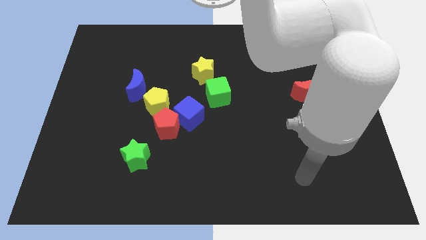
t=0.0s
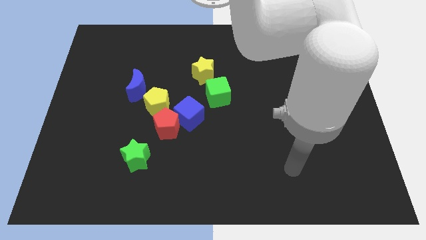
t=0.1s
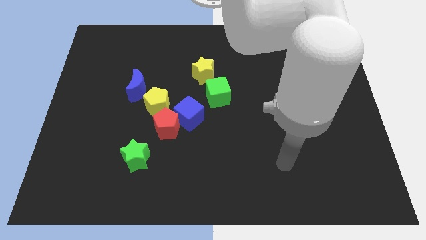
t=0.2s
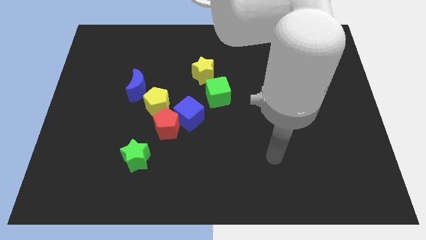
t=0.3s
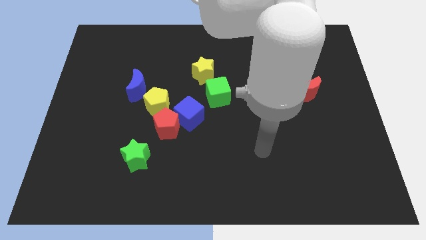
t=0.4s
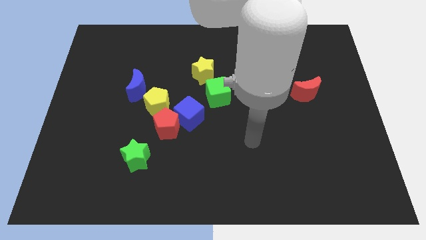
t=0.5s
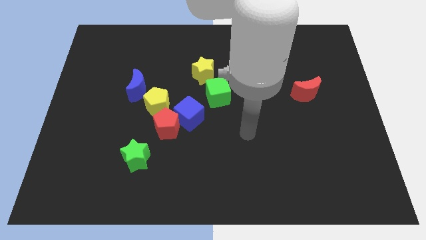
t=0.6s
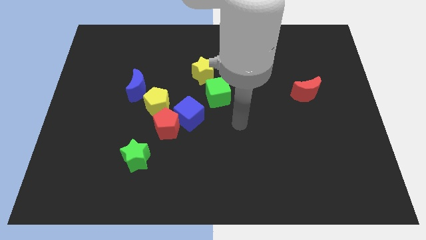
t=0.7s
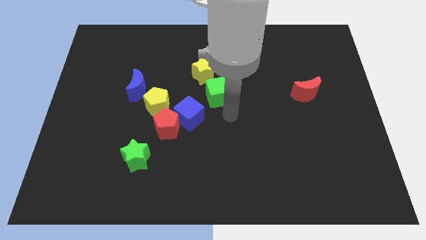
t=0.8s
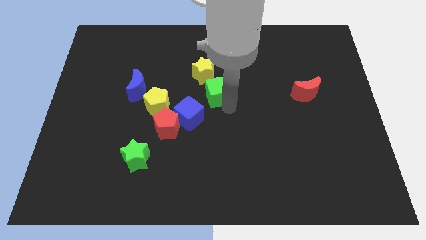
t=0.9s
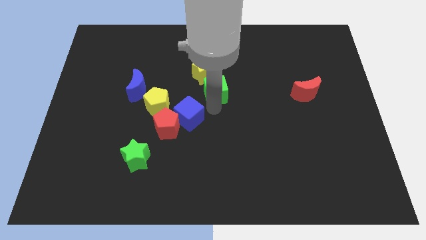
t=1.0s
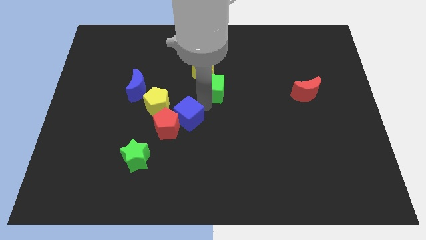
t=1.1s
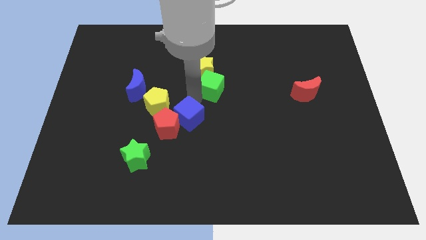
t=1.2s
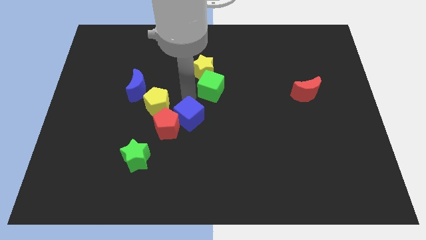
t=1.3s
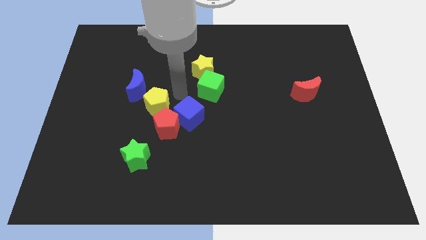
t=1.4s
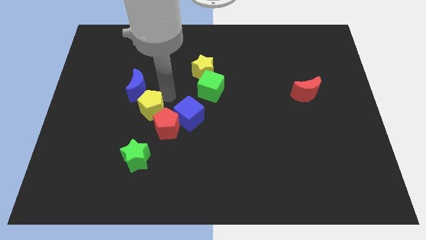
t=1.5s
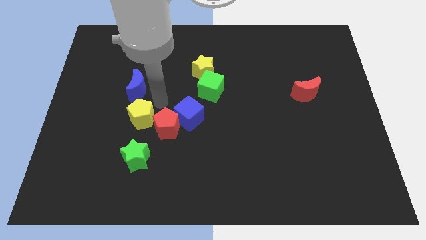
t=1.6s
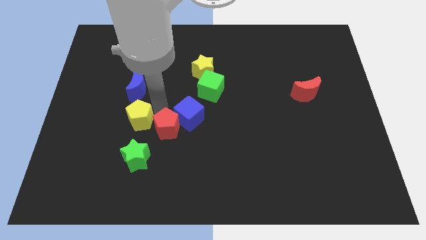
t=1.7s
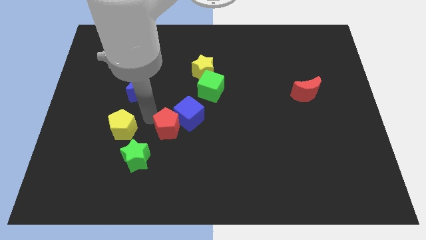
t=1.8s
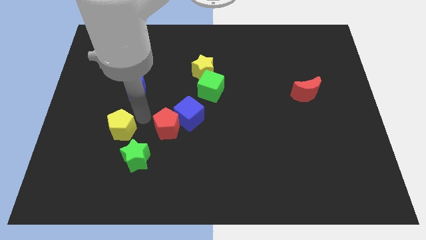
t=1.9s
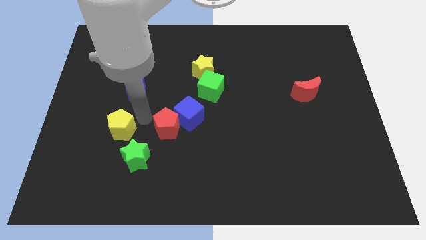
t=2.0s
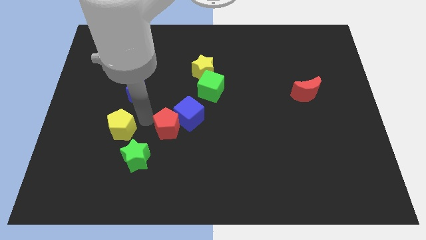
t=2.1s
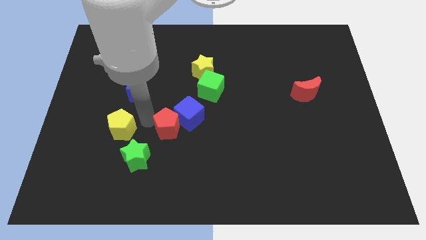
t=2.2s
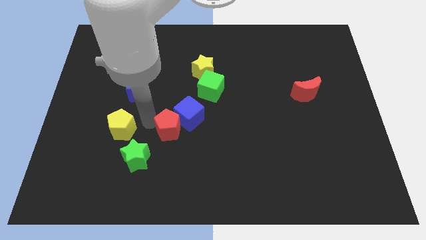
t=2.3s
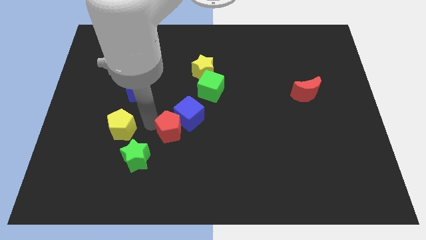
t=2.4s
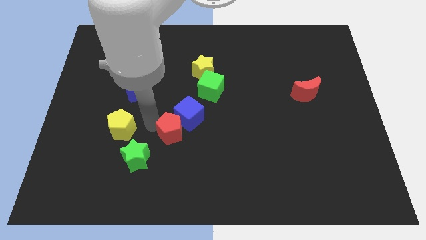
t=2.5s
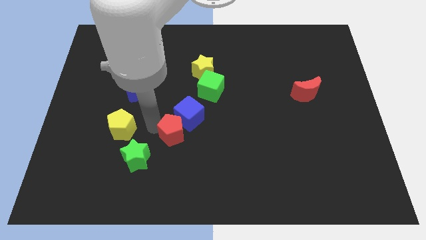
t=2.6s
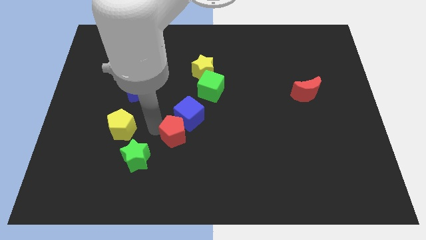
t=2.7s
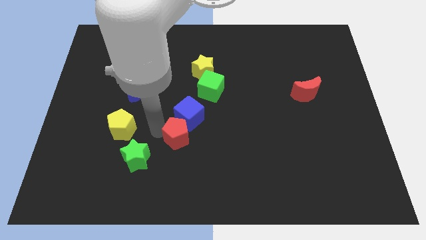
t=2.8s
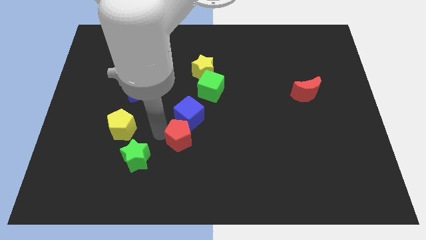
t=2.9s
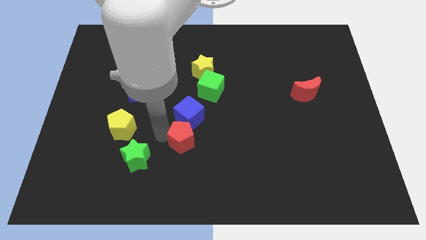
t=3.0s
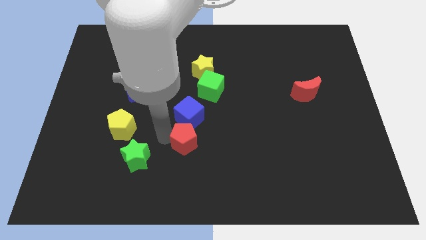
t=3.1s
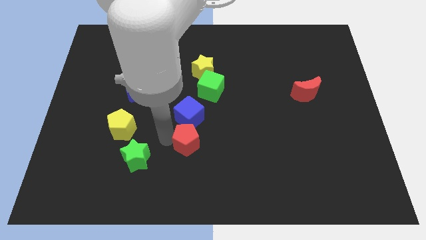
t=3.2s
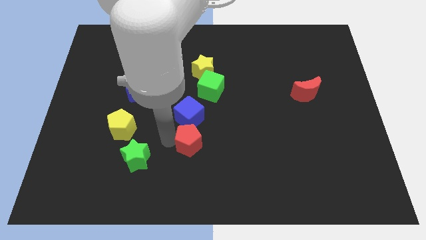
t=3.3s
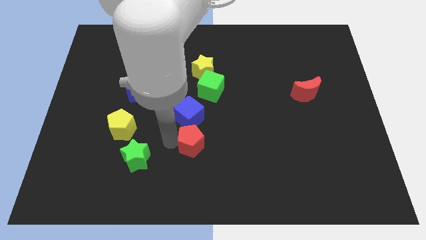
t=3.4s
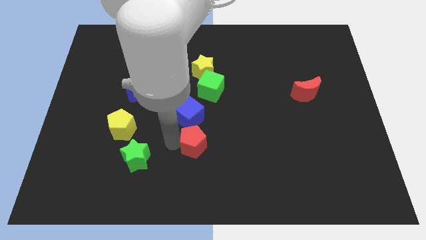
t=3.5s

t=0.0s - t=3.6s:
move the red pentagon away from the blue cube, yellow pentagon, and green star

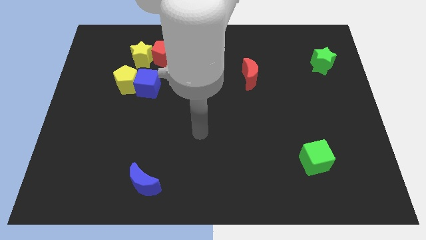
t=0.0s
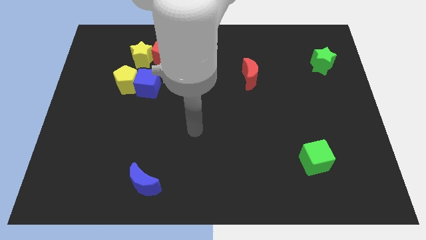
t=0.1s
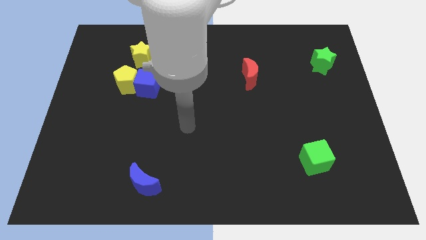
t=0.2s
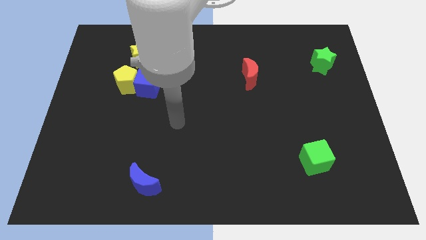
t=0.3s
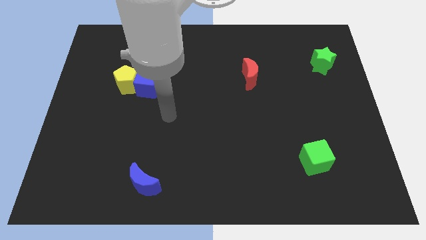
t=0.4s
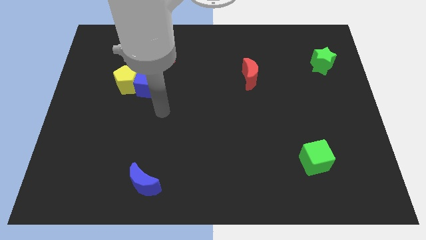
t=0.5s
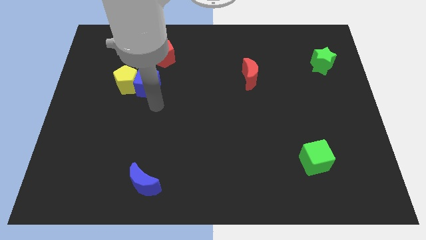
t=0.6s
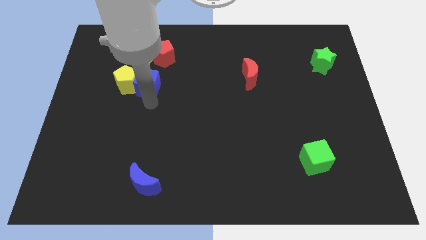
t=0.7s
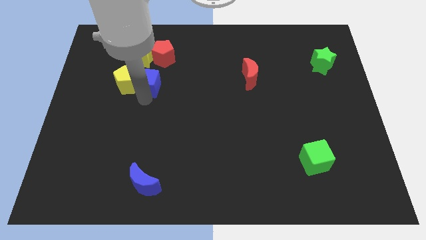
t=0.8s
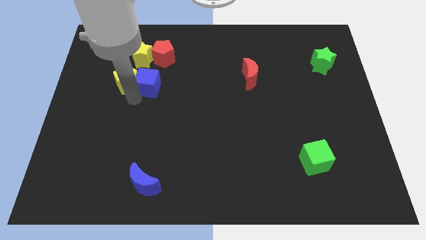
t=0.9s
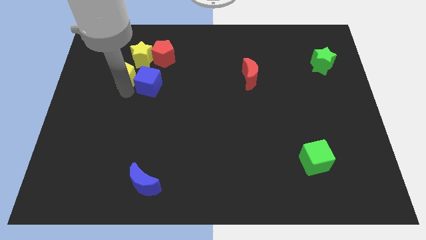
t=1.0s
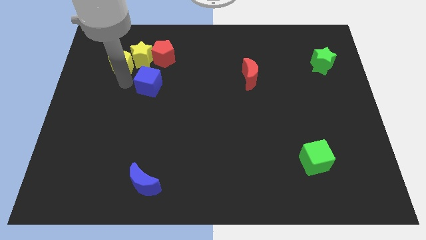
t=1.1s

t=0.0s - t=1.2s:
pull the blue cube apart from the yellow pentagon

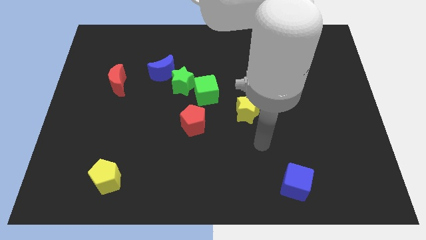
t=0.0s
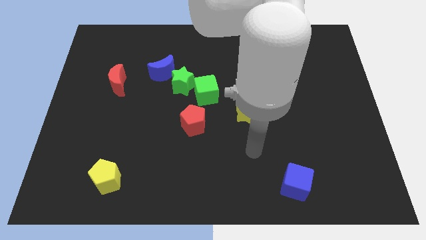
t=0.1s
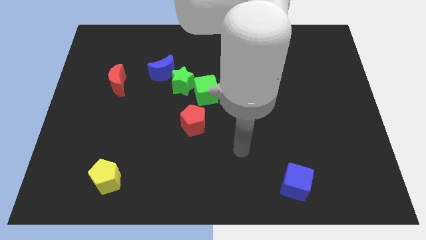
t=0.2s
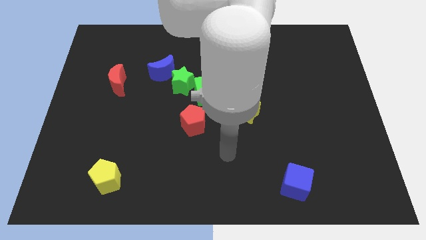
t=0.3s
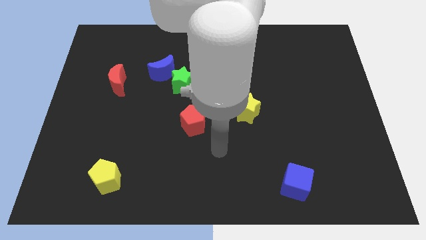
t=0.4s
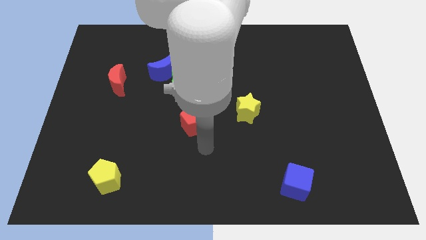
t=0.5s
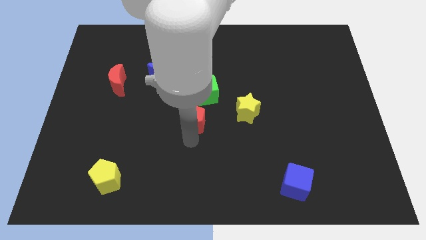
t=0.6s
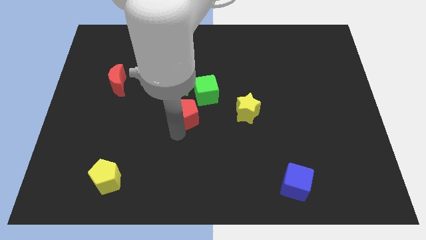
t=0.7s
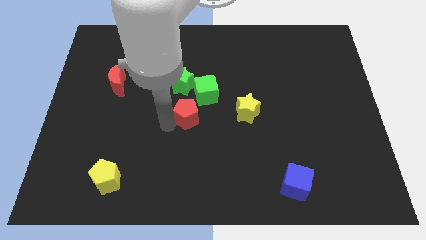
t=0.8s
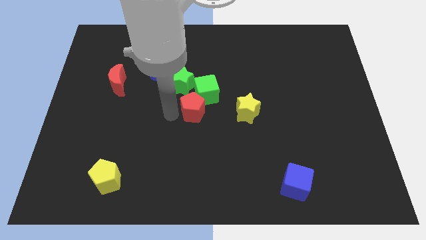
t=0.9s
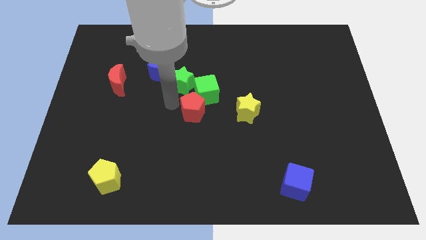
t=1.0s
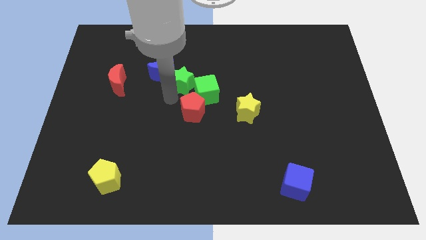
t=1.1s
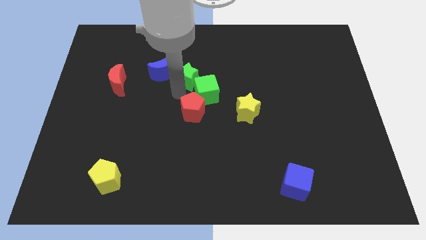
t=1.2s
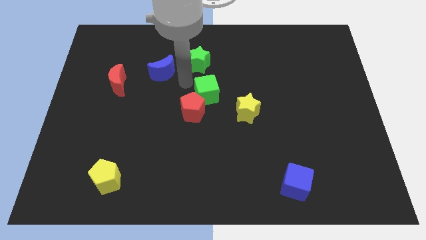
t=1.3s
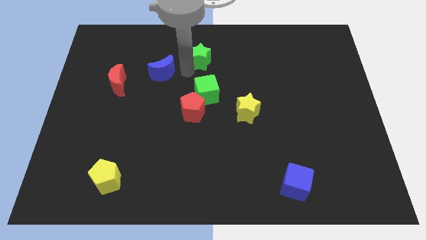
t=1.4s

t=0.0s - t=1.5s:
move the blue moon away from the green star

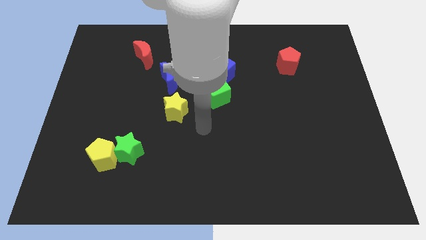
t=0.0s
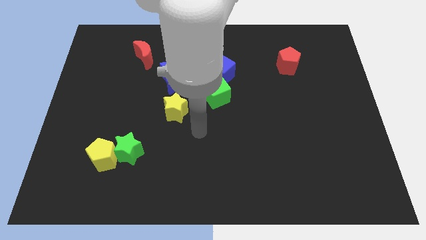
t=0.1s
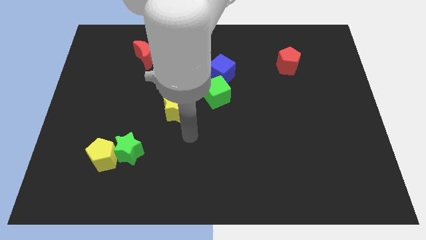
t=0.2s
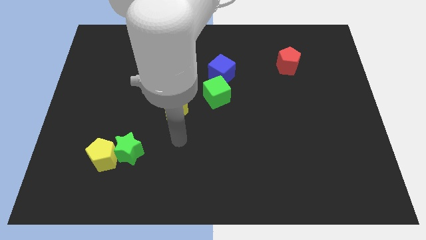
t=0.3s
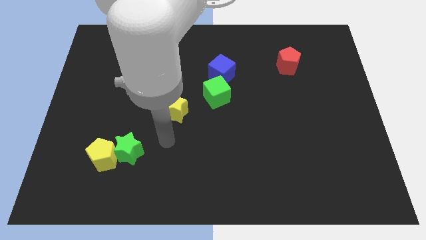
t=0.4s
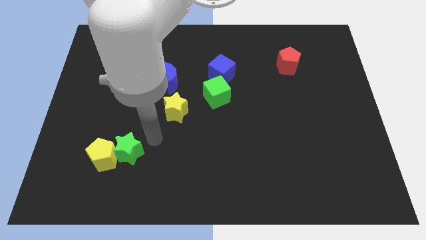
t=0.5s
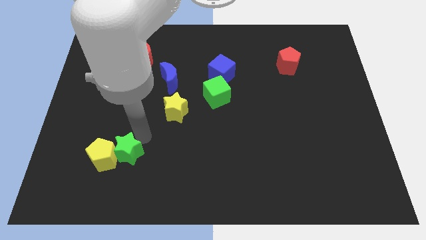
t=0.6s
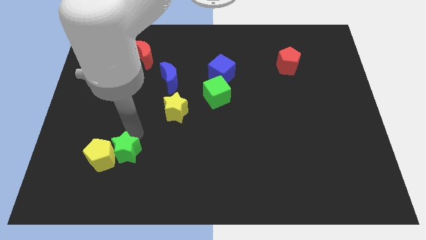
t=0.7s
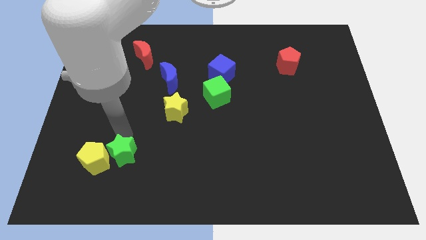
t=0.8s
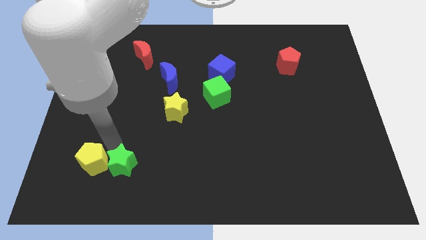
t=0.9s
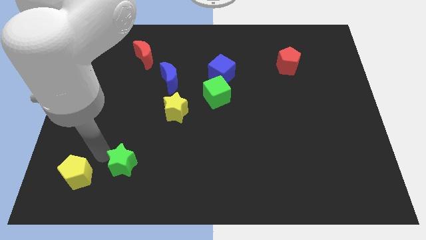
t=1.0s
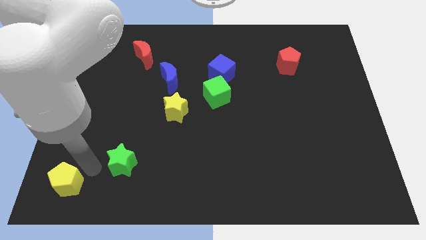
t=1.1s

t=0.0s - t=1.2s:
move the green star away from the yellow pentagon

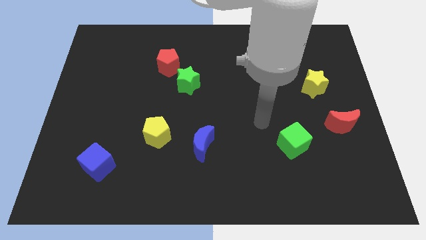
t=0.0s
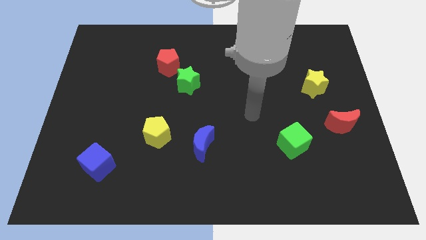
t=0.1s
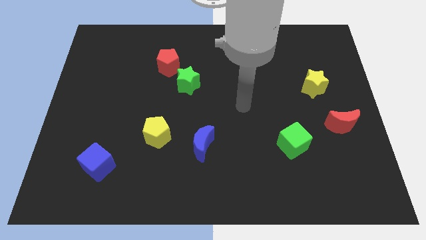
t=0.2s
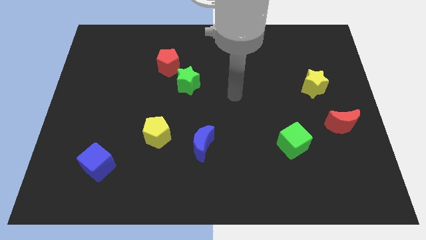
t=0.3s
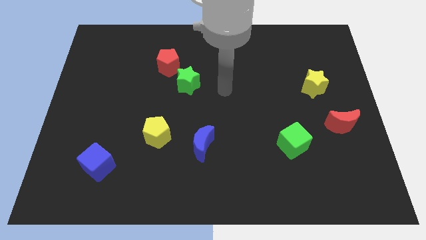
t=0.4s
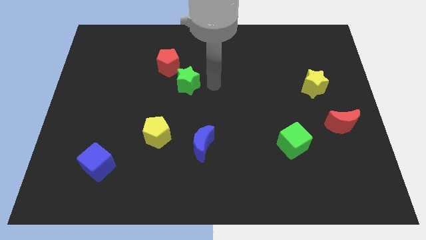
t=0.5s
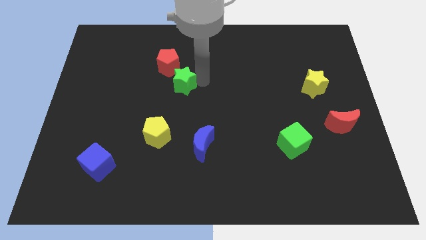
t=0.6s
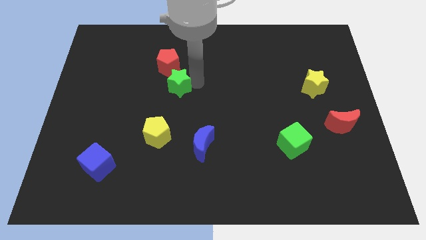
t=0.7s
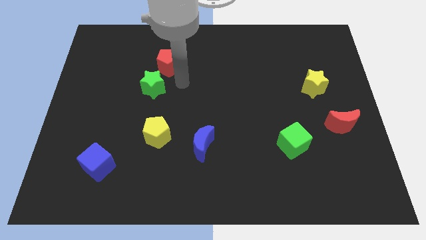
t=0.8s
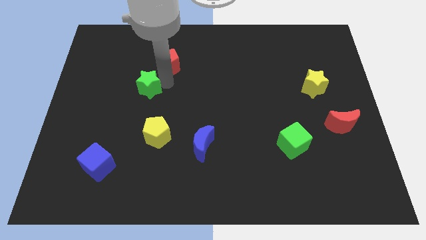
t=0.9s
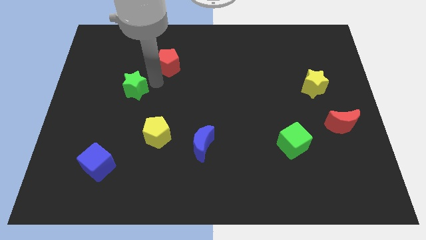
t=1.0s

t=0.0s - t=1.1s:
pull the red pentagon apart from the green star

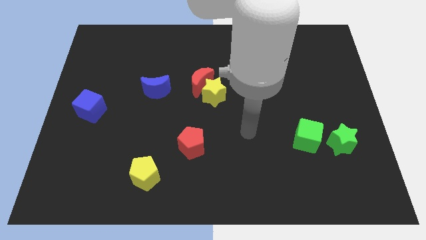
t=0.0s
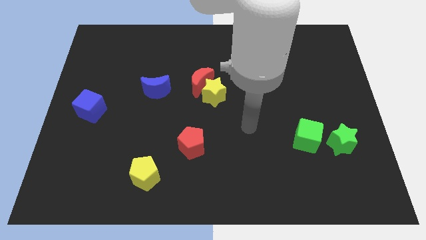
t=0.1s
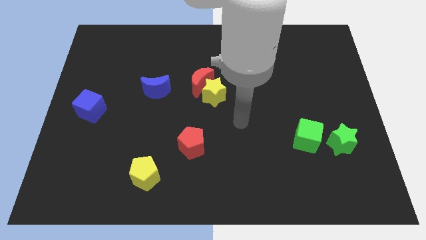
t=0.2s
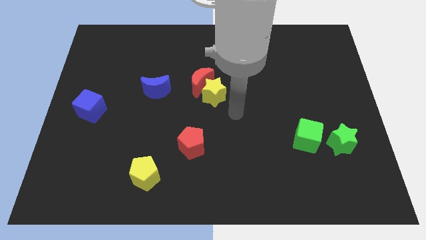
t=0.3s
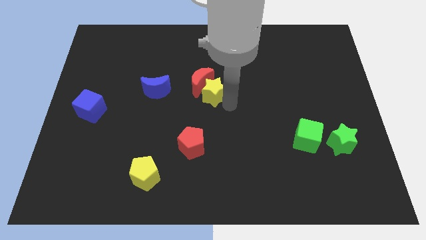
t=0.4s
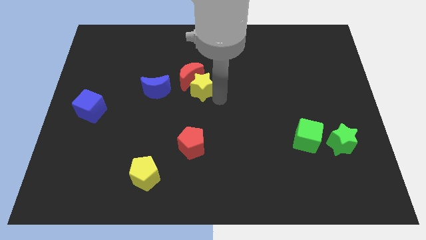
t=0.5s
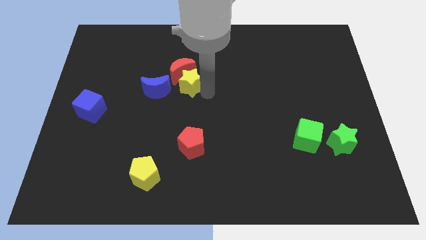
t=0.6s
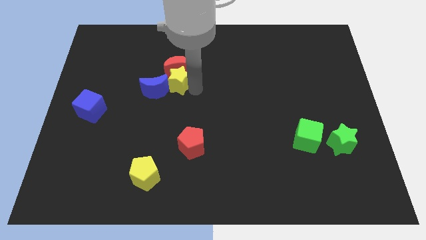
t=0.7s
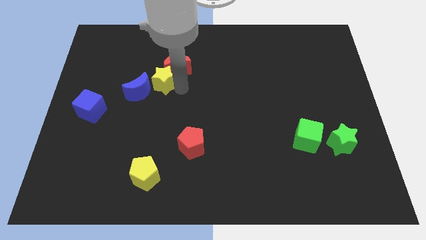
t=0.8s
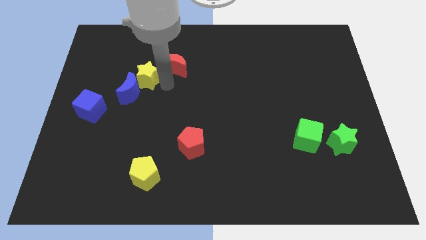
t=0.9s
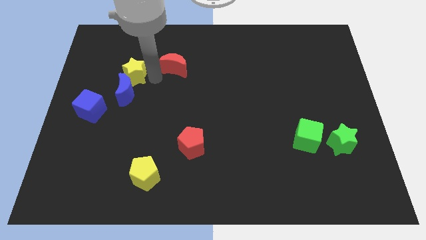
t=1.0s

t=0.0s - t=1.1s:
move the red moon away from the yellow star
